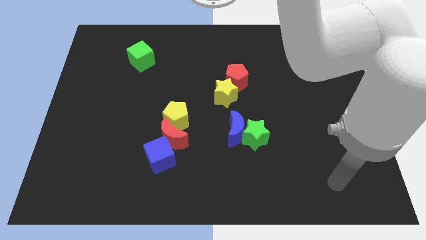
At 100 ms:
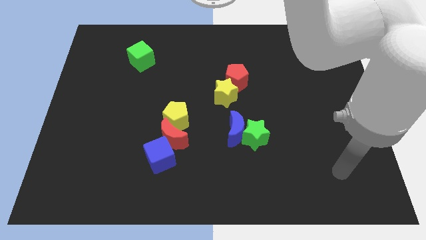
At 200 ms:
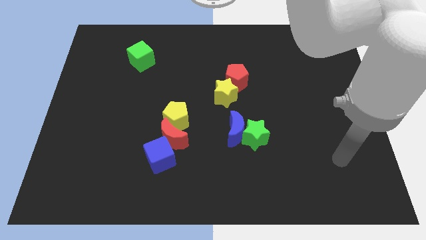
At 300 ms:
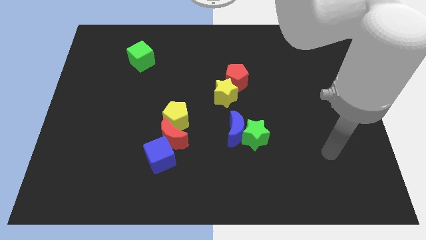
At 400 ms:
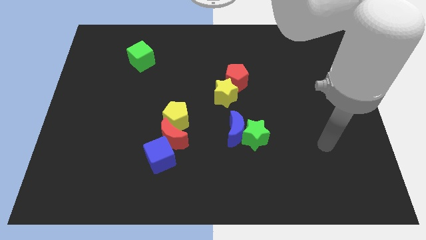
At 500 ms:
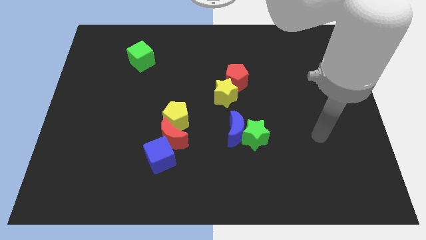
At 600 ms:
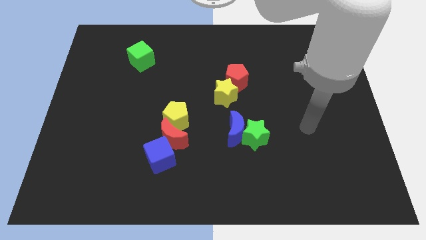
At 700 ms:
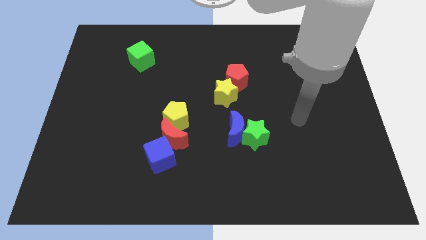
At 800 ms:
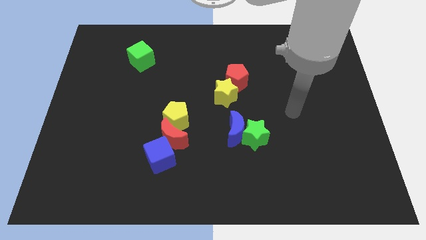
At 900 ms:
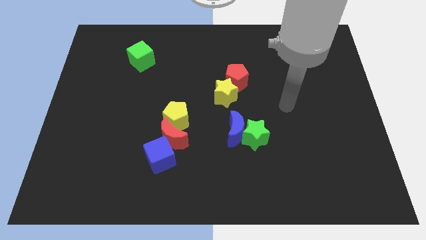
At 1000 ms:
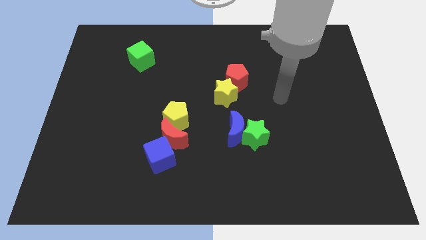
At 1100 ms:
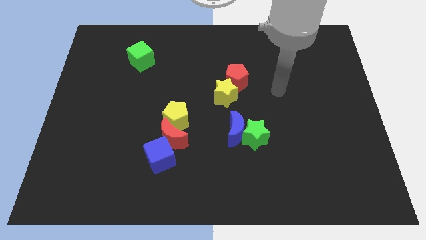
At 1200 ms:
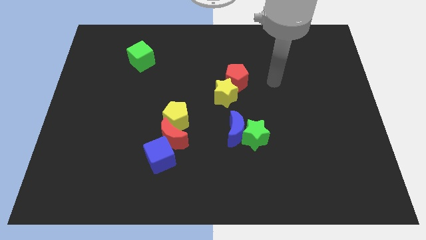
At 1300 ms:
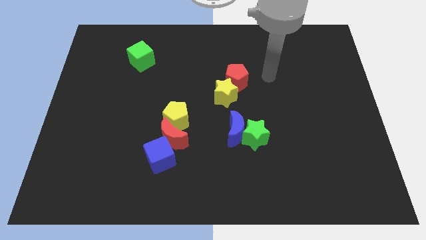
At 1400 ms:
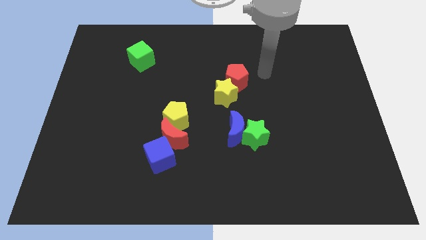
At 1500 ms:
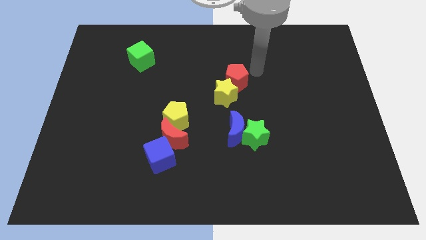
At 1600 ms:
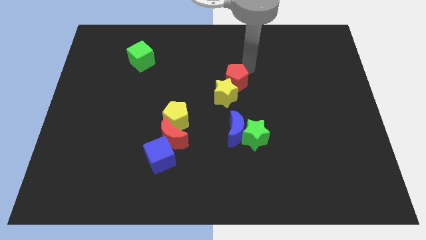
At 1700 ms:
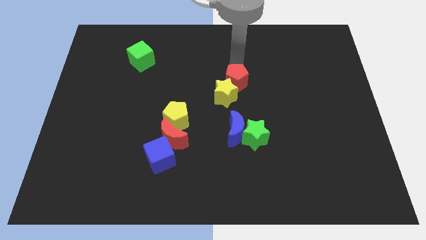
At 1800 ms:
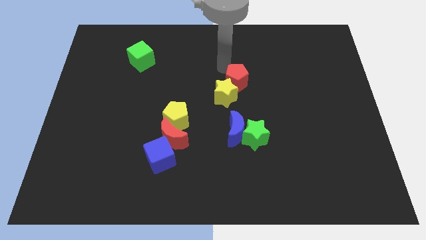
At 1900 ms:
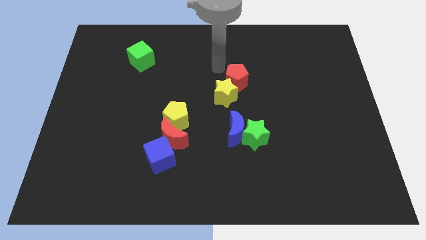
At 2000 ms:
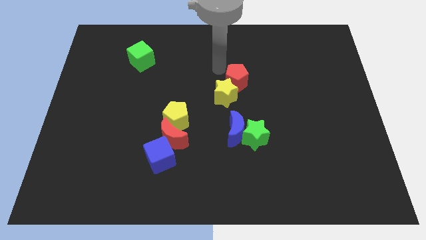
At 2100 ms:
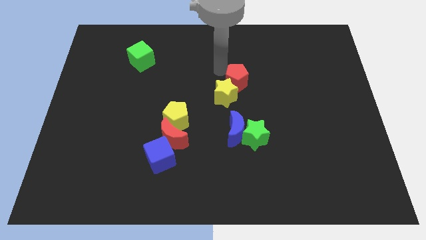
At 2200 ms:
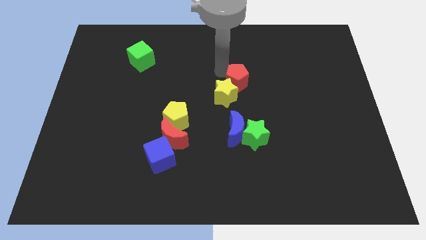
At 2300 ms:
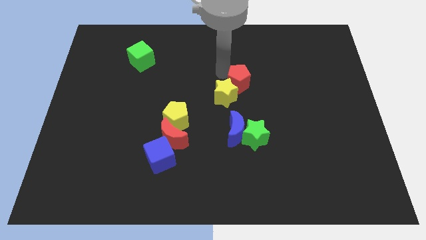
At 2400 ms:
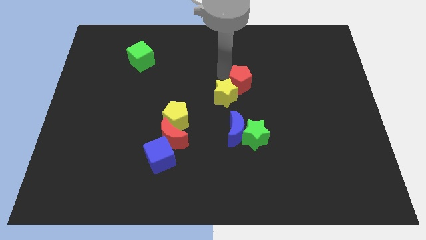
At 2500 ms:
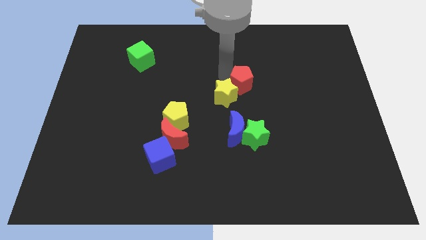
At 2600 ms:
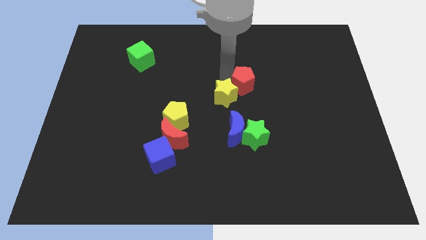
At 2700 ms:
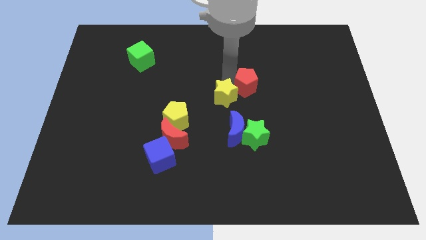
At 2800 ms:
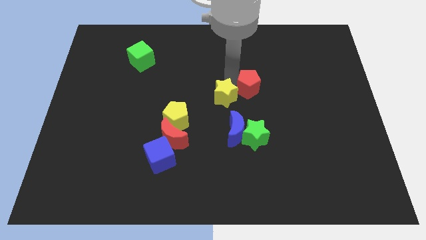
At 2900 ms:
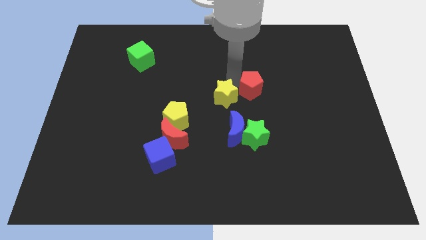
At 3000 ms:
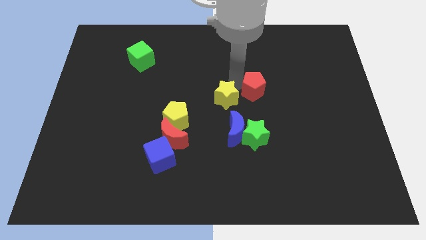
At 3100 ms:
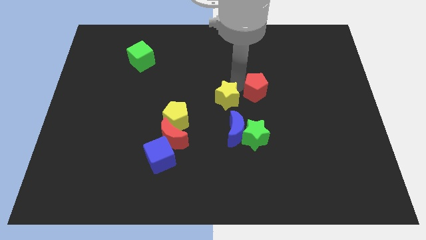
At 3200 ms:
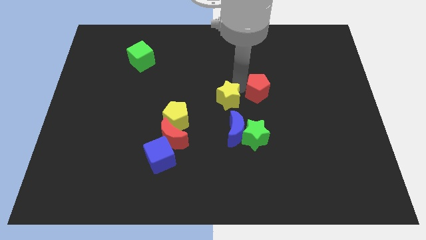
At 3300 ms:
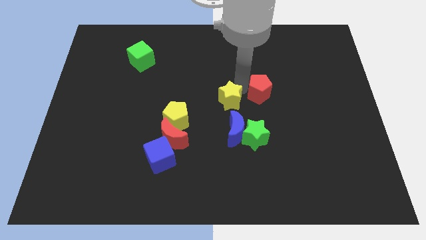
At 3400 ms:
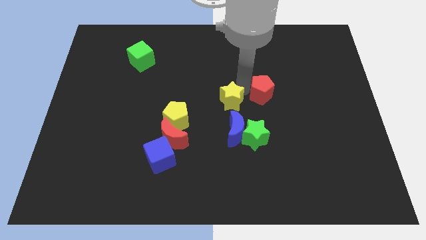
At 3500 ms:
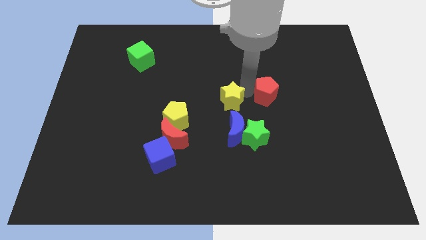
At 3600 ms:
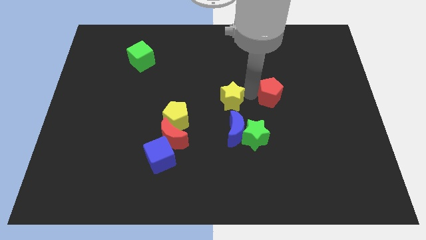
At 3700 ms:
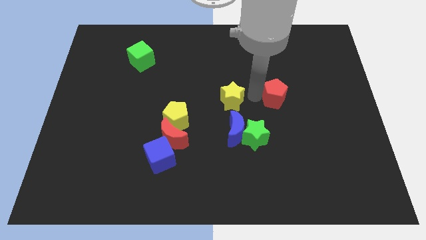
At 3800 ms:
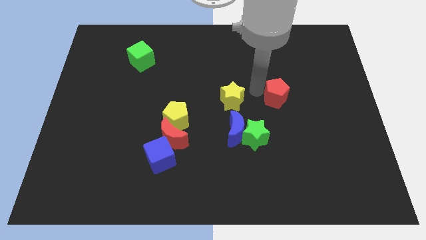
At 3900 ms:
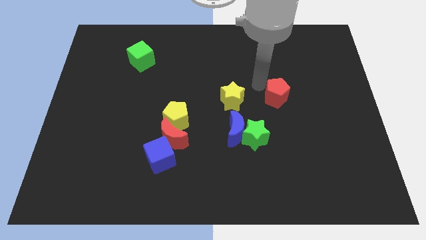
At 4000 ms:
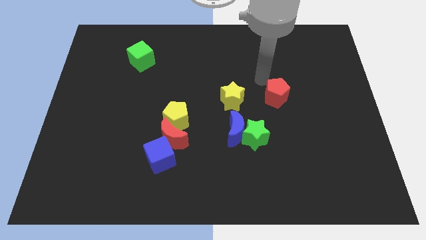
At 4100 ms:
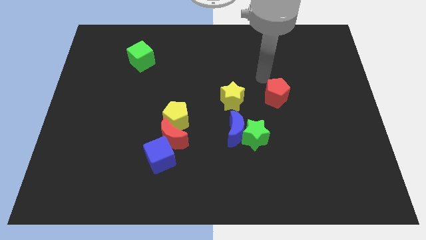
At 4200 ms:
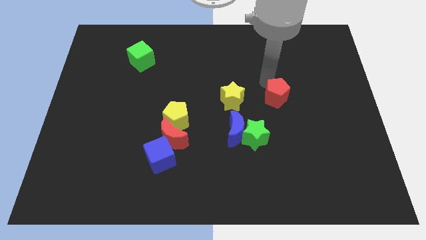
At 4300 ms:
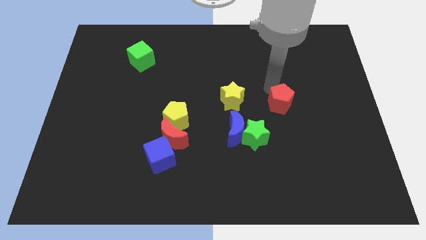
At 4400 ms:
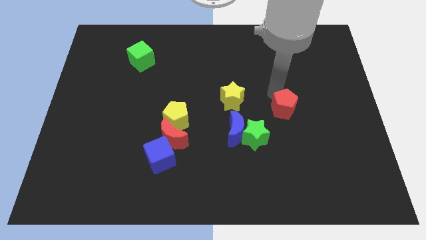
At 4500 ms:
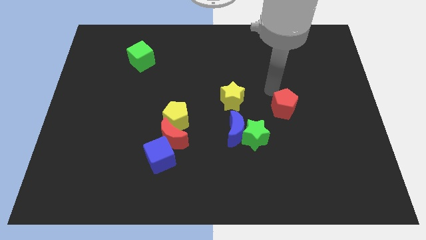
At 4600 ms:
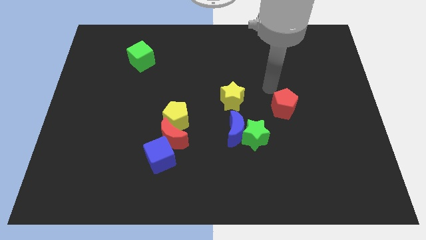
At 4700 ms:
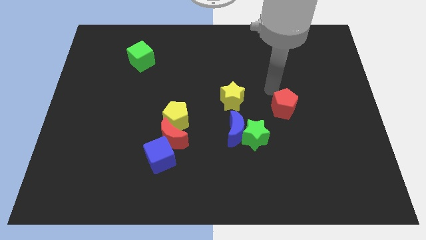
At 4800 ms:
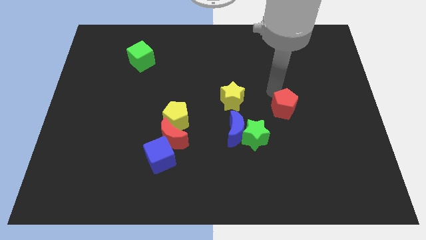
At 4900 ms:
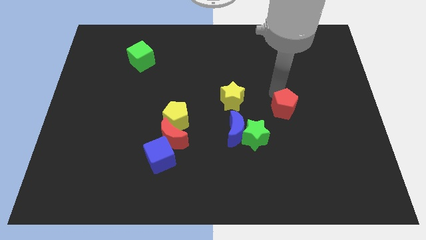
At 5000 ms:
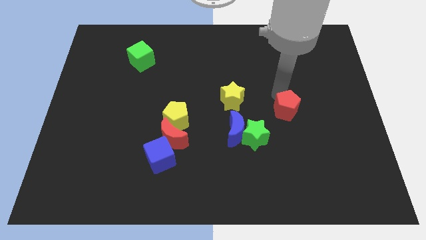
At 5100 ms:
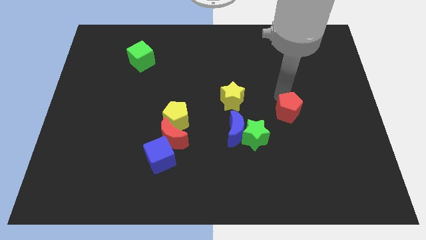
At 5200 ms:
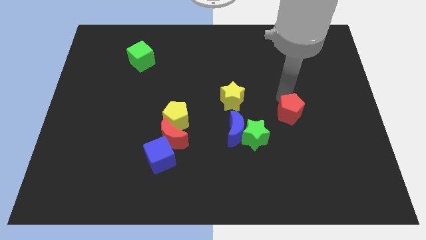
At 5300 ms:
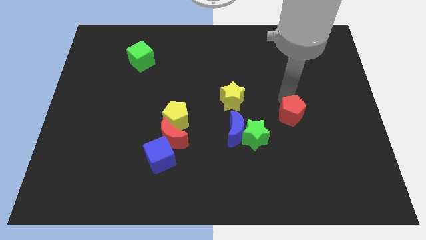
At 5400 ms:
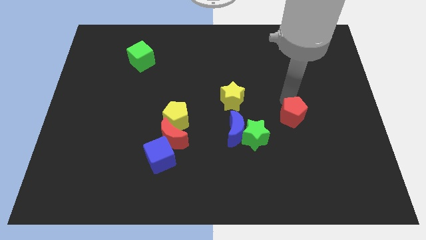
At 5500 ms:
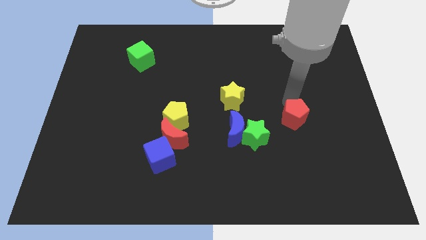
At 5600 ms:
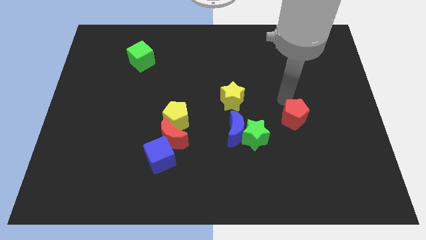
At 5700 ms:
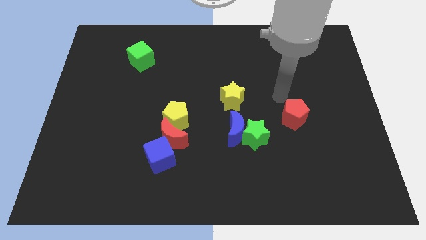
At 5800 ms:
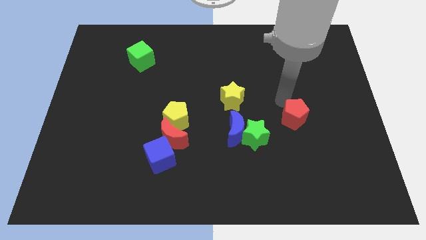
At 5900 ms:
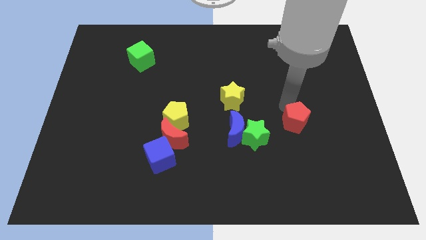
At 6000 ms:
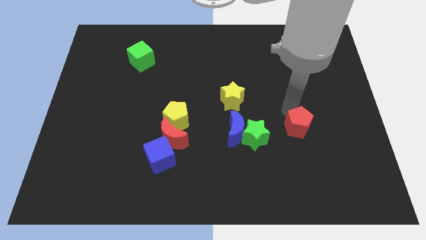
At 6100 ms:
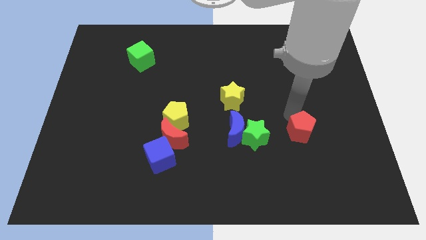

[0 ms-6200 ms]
push the red pentagon downwards and right

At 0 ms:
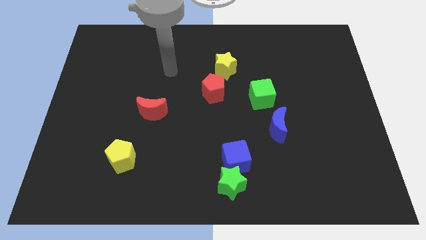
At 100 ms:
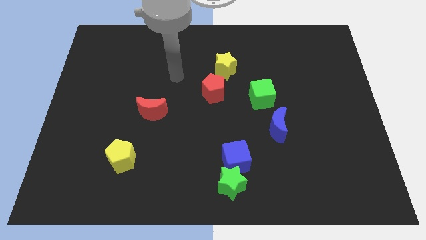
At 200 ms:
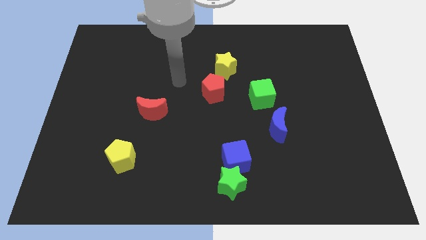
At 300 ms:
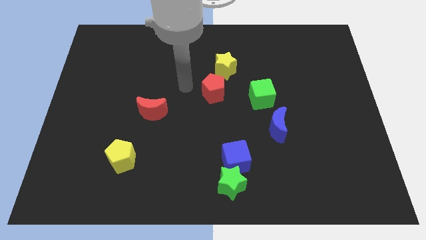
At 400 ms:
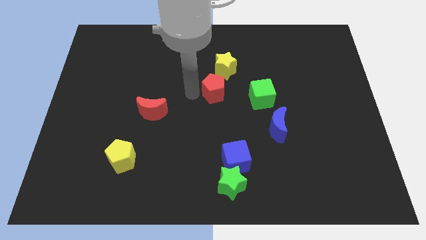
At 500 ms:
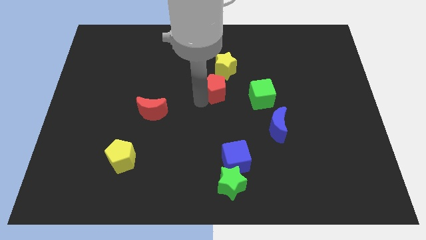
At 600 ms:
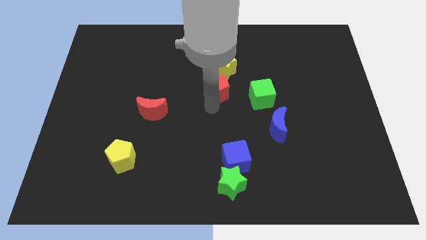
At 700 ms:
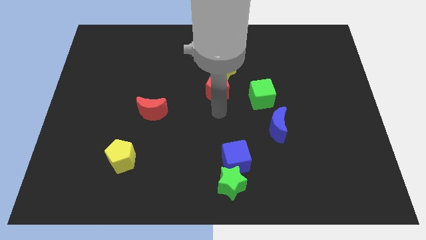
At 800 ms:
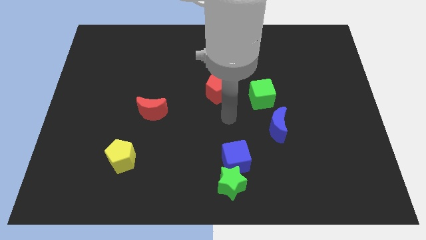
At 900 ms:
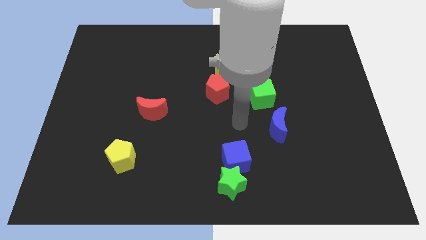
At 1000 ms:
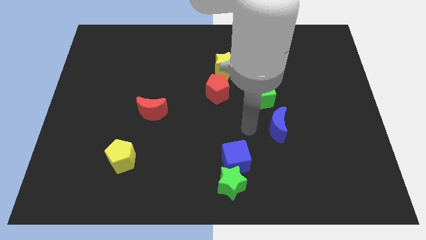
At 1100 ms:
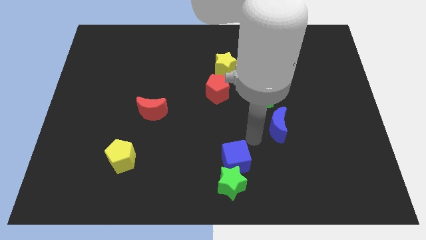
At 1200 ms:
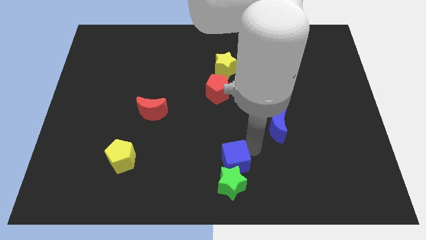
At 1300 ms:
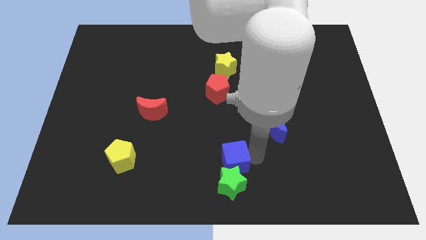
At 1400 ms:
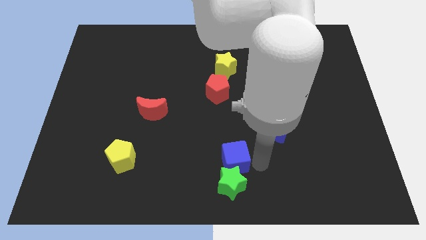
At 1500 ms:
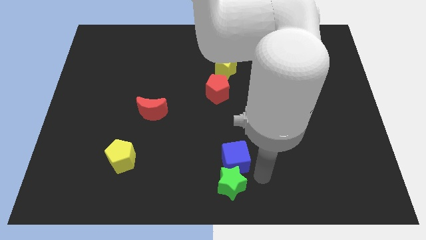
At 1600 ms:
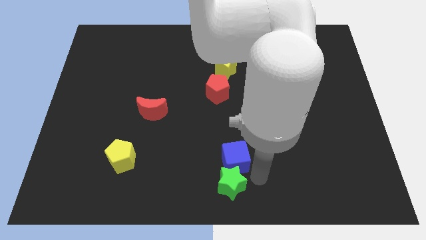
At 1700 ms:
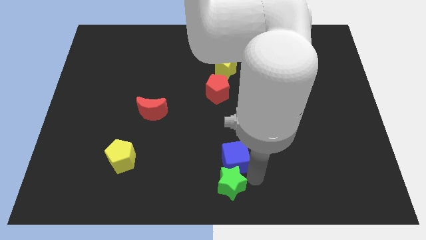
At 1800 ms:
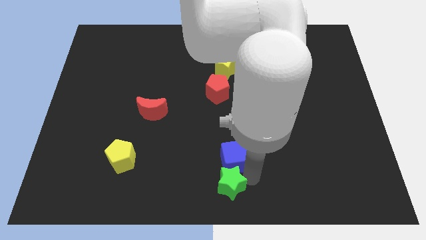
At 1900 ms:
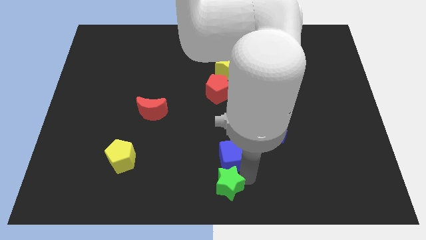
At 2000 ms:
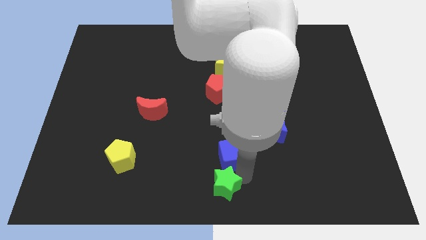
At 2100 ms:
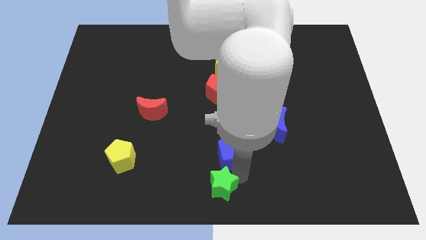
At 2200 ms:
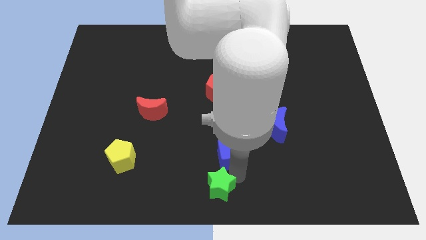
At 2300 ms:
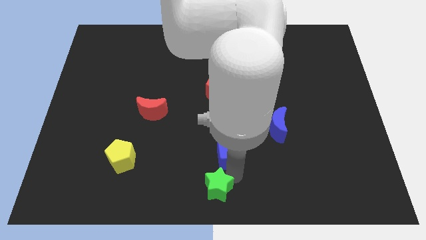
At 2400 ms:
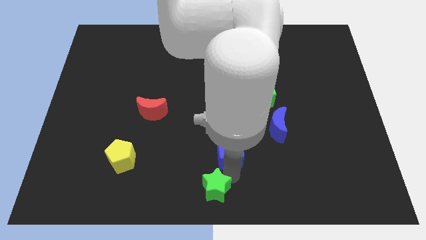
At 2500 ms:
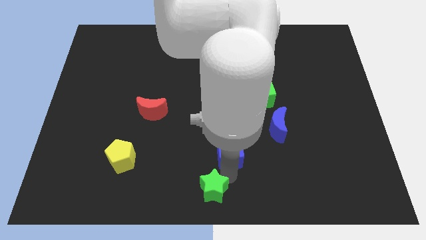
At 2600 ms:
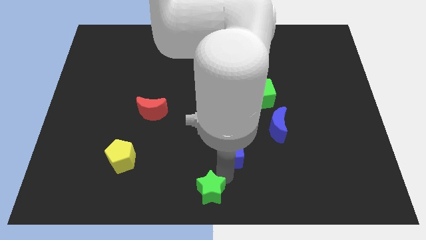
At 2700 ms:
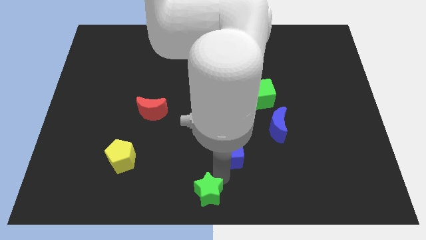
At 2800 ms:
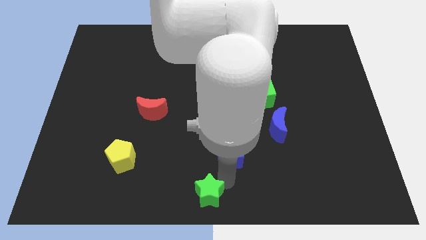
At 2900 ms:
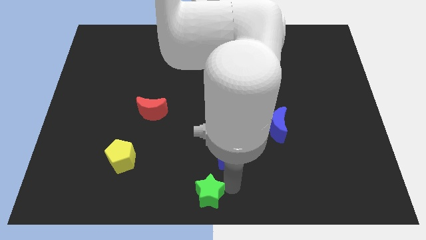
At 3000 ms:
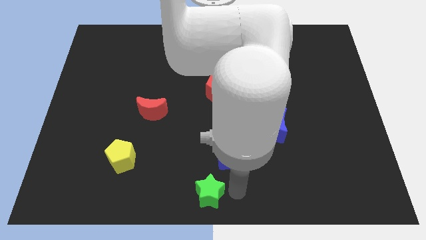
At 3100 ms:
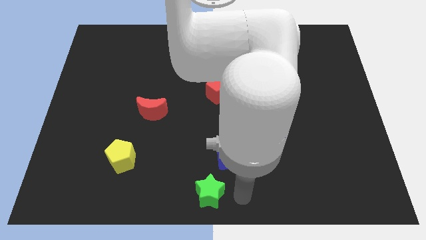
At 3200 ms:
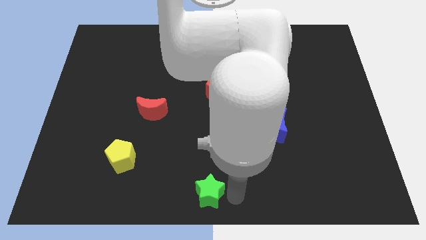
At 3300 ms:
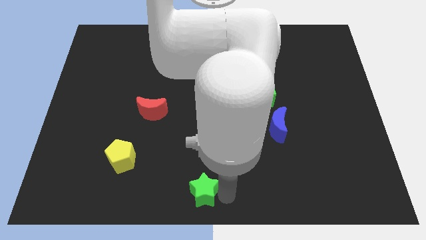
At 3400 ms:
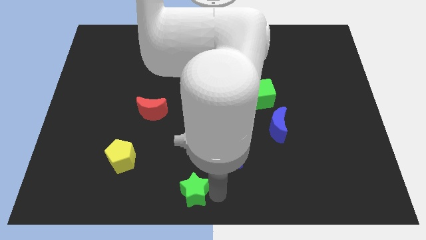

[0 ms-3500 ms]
slightly slide the green star to the left
